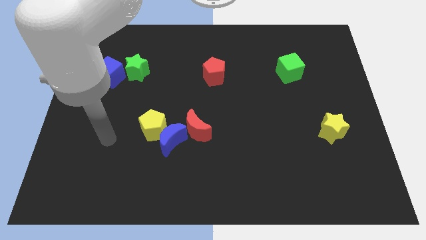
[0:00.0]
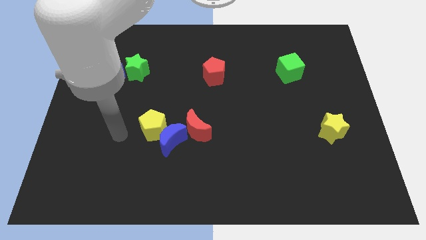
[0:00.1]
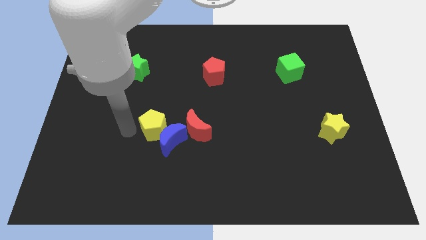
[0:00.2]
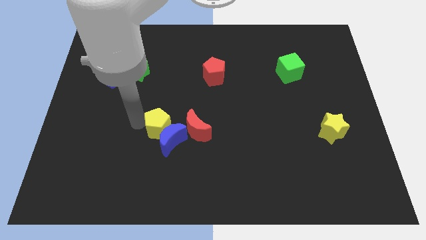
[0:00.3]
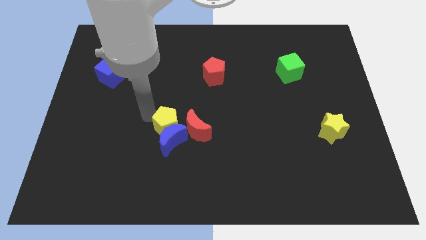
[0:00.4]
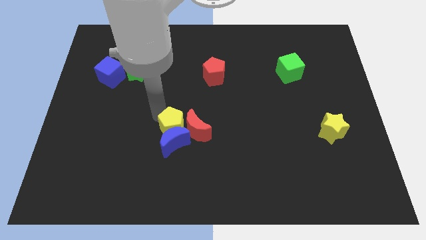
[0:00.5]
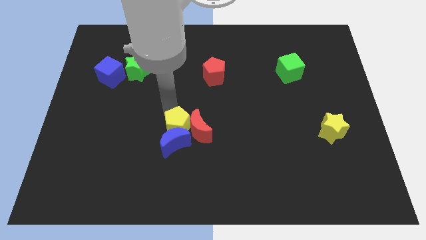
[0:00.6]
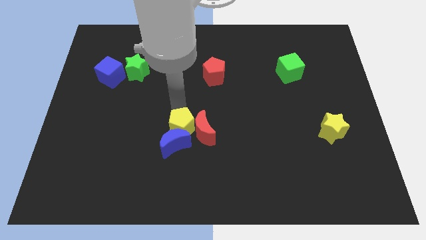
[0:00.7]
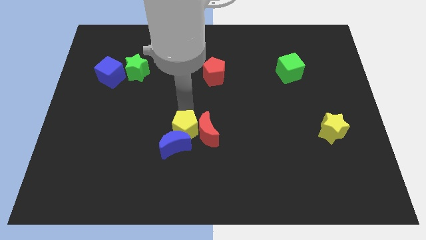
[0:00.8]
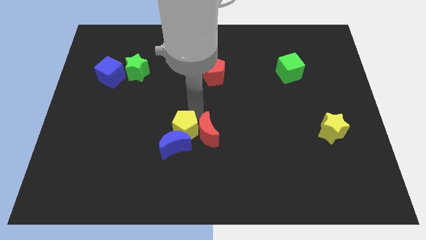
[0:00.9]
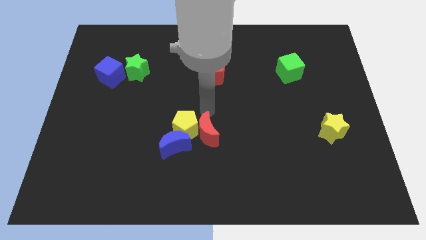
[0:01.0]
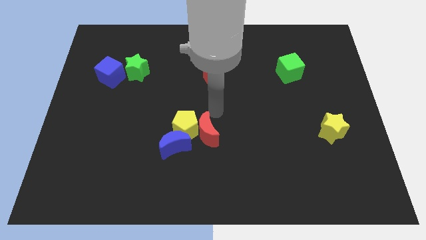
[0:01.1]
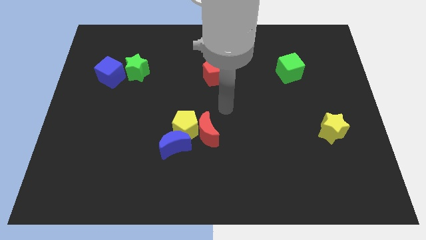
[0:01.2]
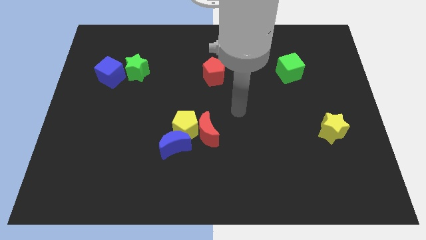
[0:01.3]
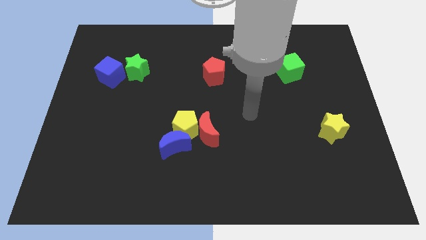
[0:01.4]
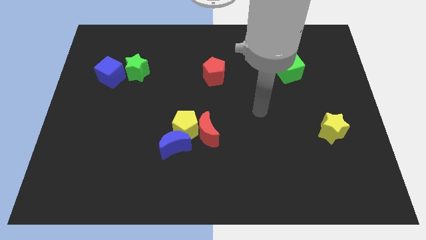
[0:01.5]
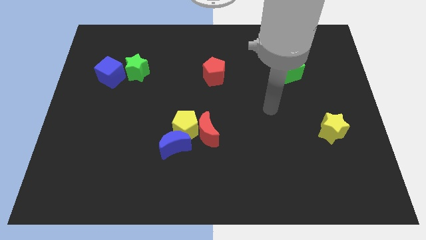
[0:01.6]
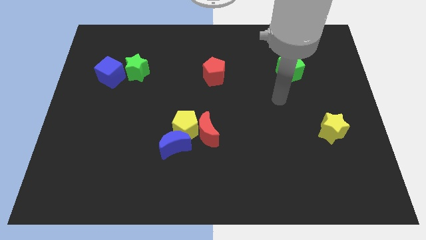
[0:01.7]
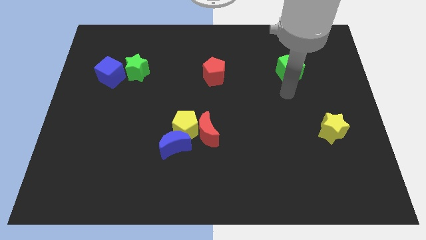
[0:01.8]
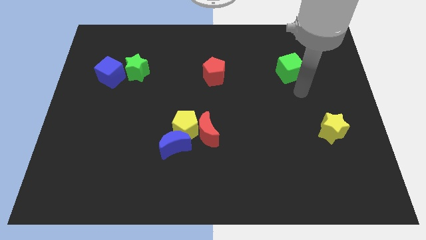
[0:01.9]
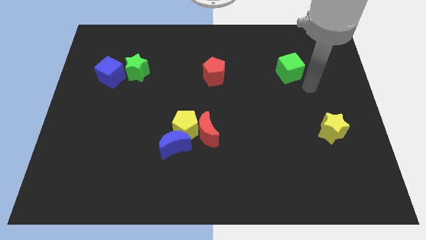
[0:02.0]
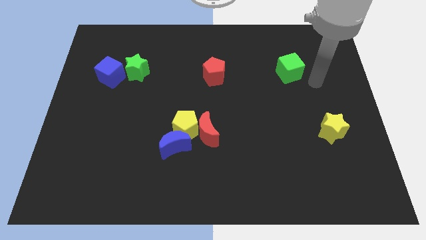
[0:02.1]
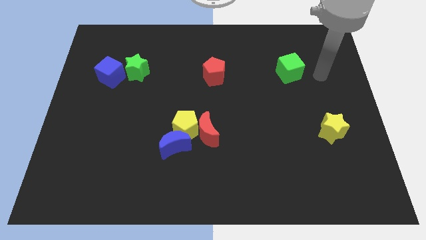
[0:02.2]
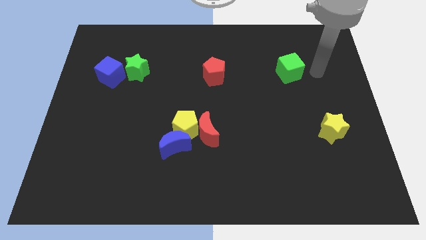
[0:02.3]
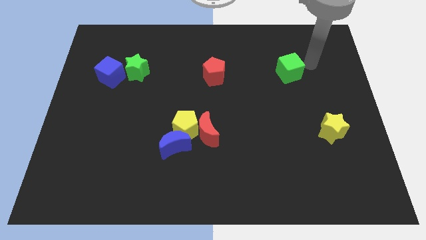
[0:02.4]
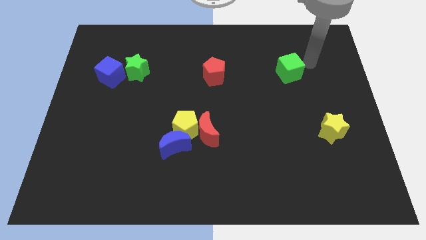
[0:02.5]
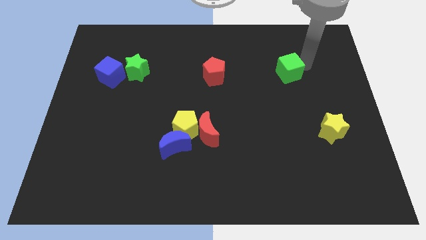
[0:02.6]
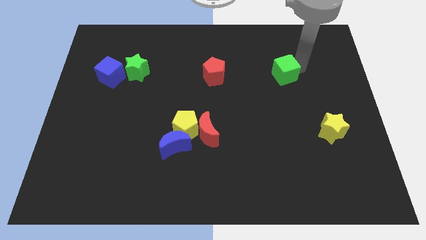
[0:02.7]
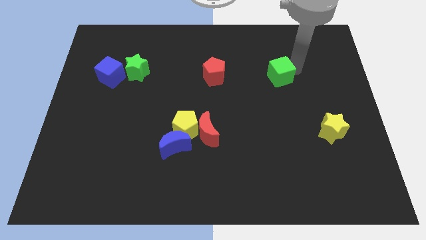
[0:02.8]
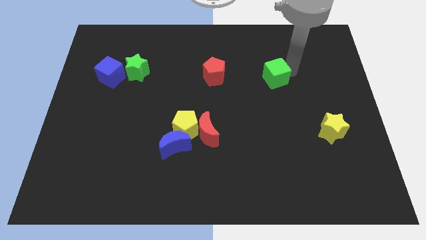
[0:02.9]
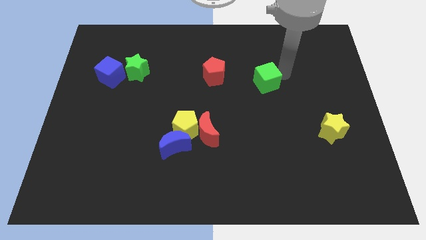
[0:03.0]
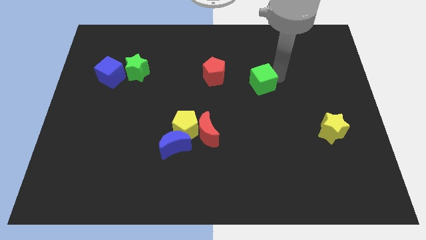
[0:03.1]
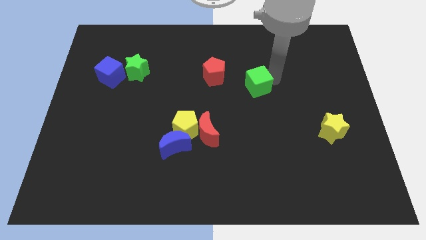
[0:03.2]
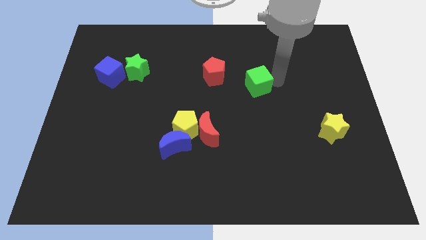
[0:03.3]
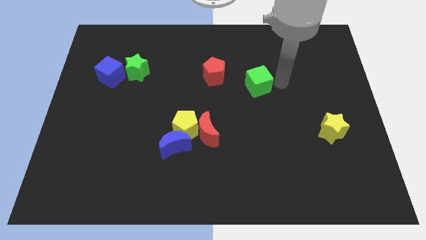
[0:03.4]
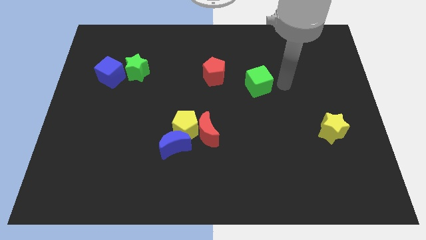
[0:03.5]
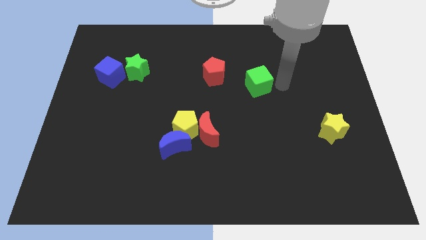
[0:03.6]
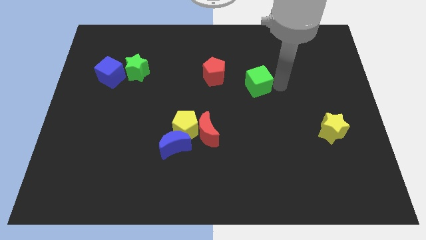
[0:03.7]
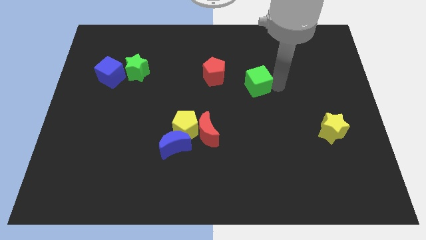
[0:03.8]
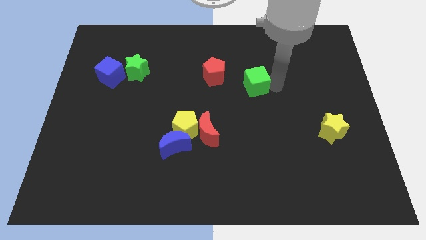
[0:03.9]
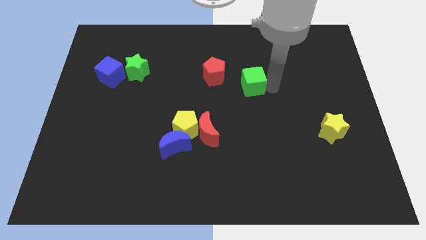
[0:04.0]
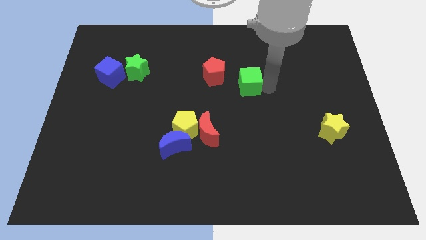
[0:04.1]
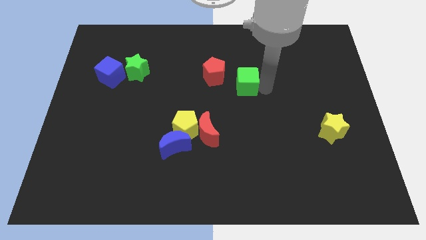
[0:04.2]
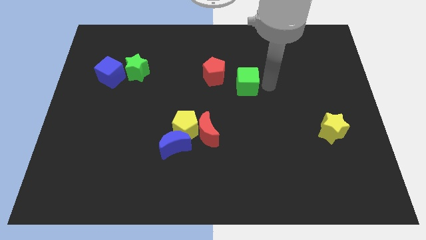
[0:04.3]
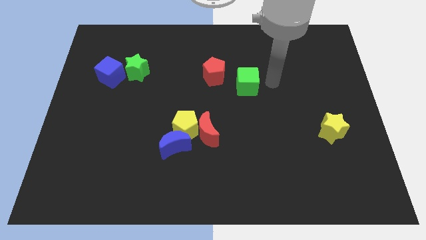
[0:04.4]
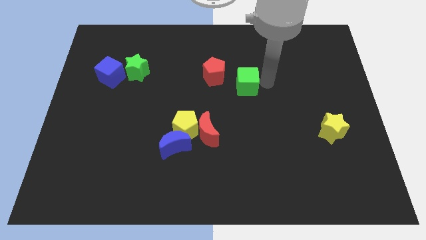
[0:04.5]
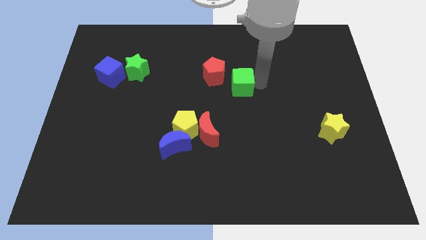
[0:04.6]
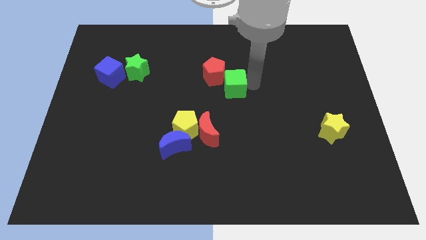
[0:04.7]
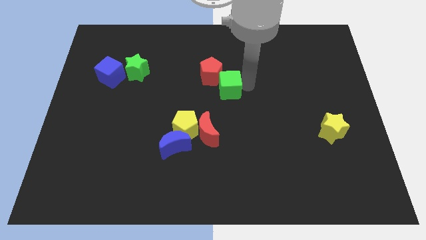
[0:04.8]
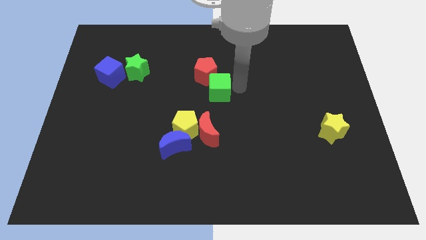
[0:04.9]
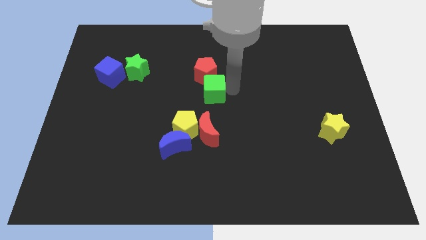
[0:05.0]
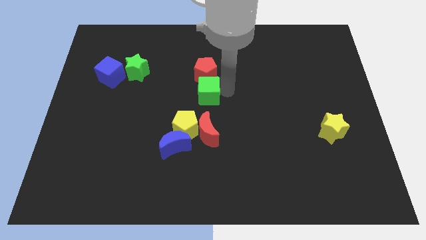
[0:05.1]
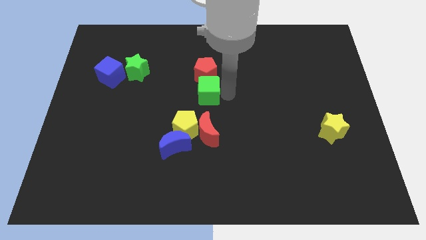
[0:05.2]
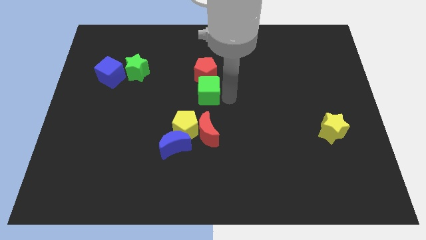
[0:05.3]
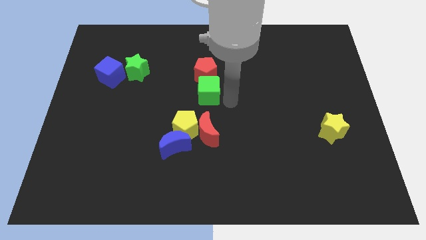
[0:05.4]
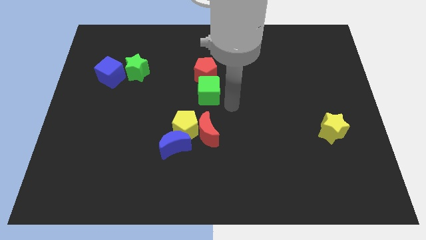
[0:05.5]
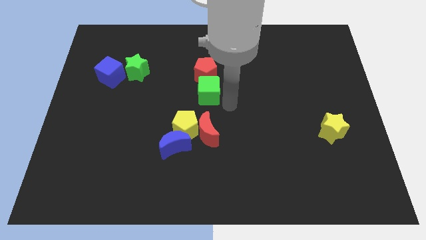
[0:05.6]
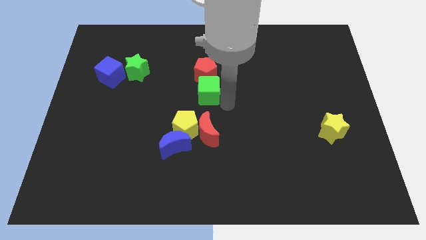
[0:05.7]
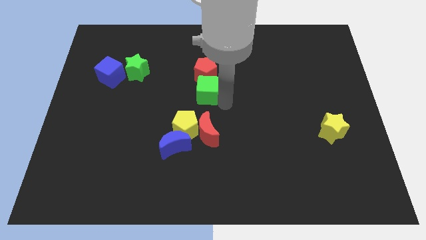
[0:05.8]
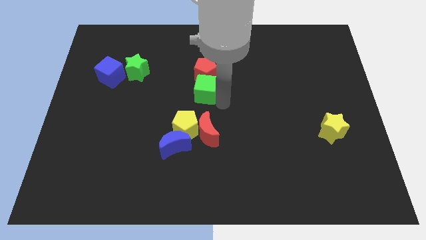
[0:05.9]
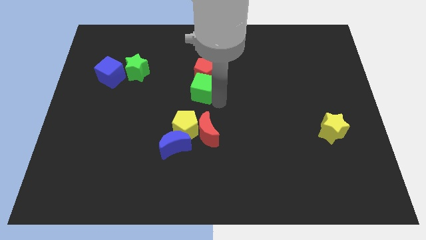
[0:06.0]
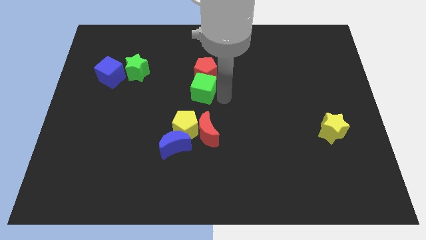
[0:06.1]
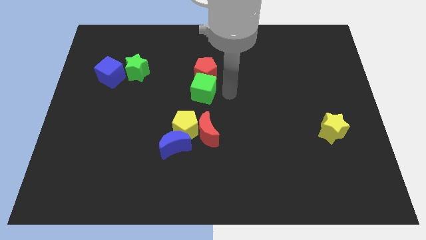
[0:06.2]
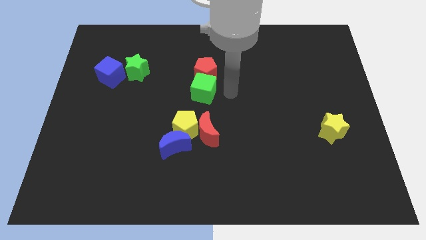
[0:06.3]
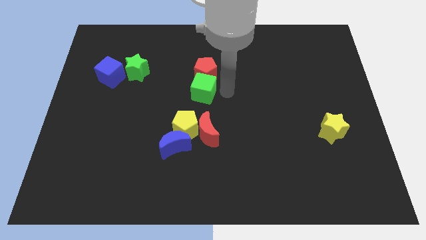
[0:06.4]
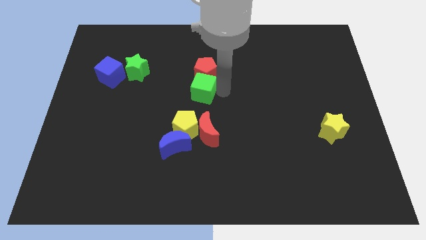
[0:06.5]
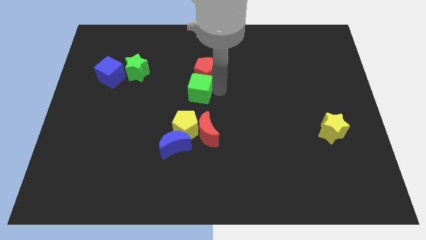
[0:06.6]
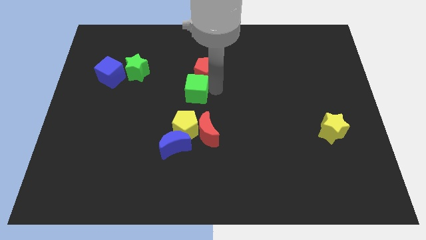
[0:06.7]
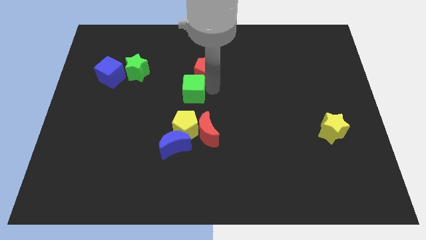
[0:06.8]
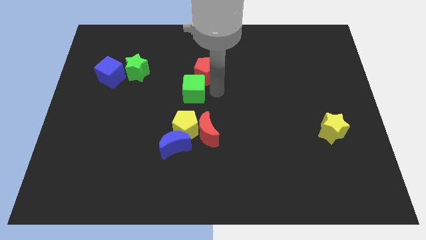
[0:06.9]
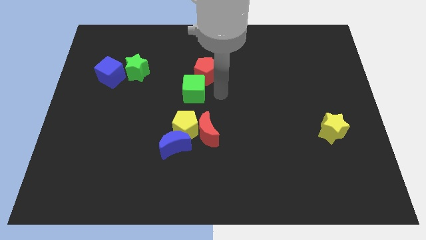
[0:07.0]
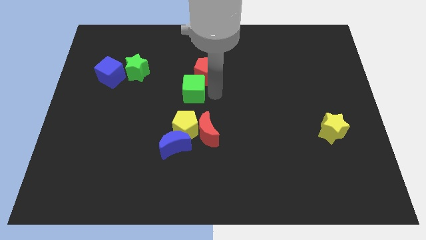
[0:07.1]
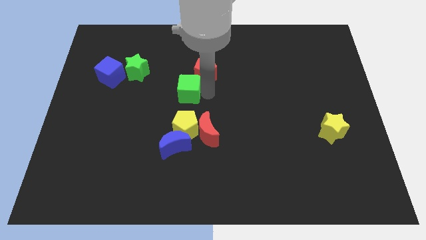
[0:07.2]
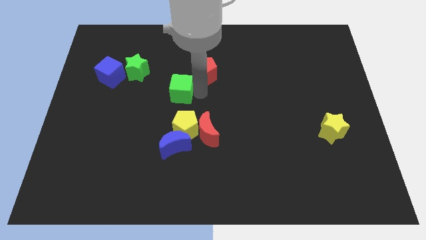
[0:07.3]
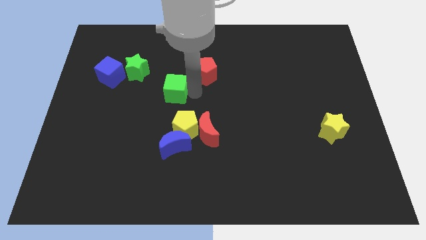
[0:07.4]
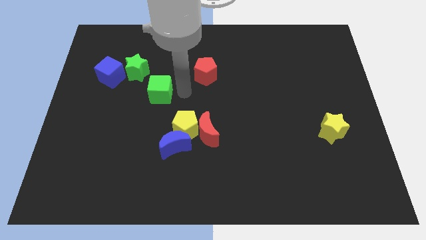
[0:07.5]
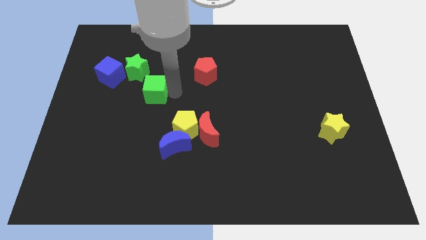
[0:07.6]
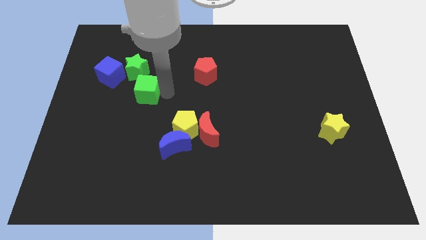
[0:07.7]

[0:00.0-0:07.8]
push the green cube diagonally down and to the right of the blue cube

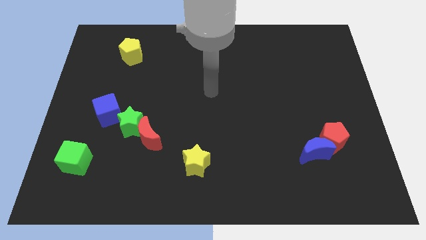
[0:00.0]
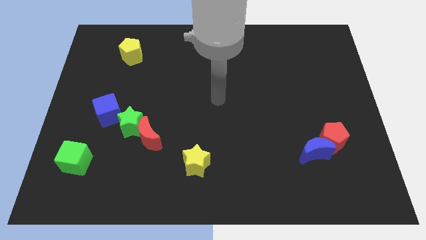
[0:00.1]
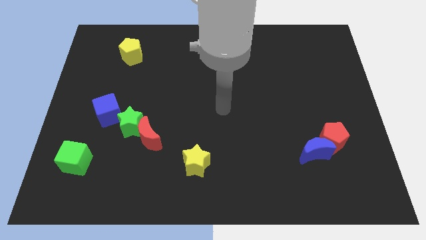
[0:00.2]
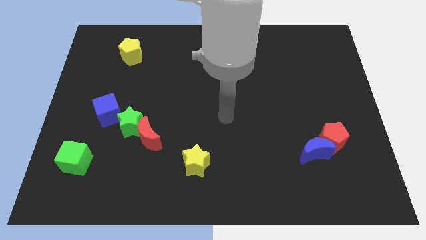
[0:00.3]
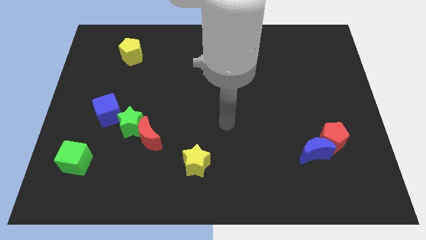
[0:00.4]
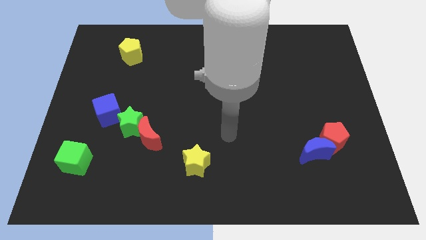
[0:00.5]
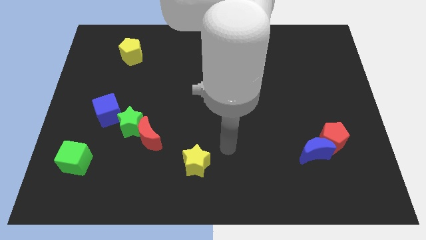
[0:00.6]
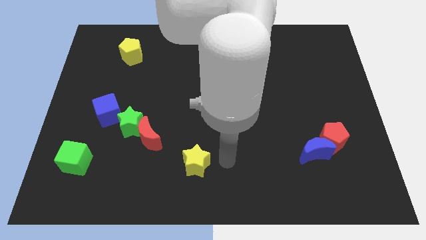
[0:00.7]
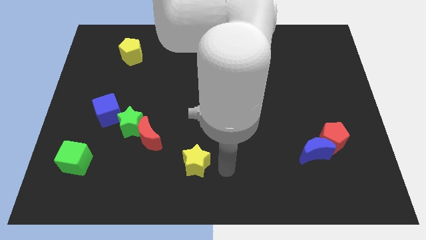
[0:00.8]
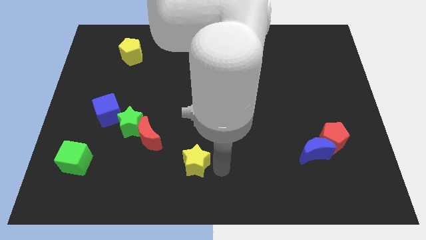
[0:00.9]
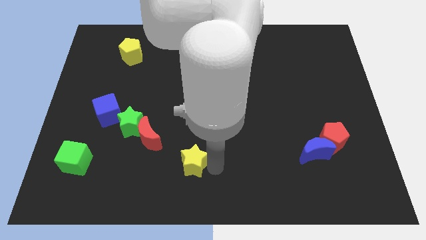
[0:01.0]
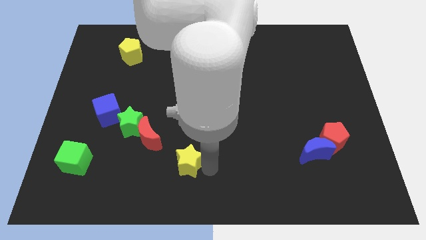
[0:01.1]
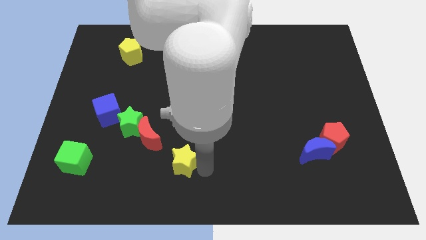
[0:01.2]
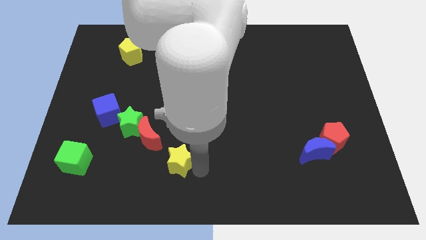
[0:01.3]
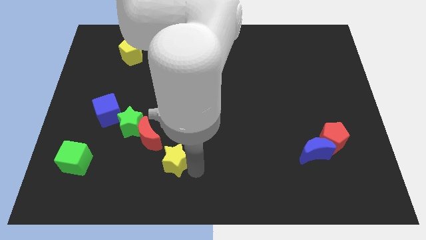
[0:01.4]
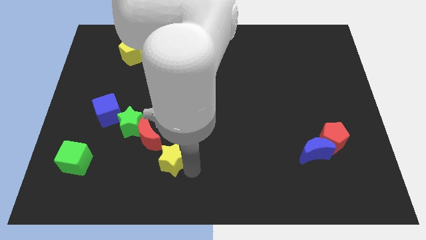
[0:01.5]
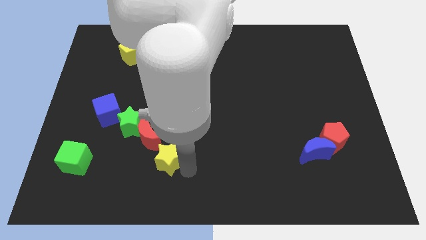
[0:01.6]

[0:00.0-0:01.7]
push the yellow star to the bottom right of the green star
